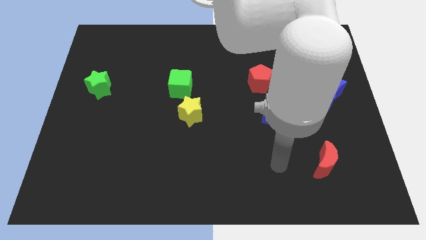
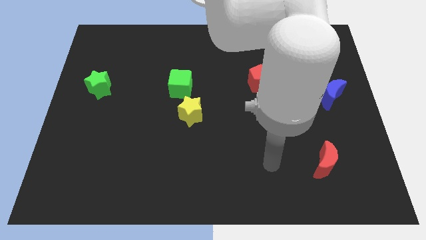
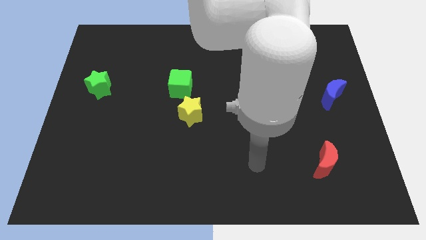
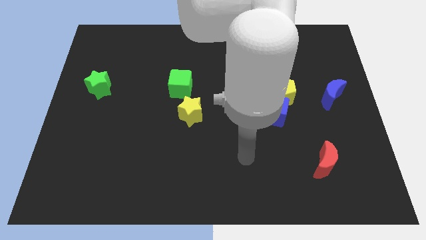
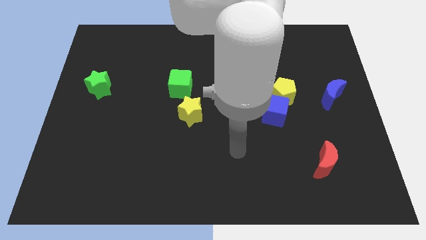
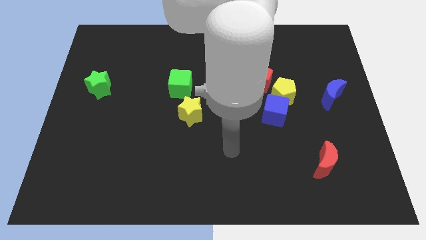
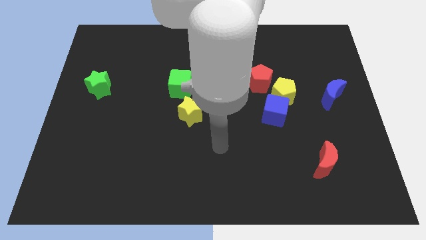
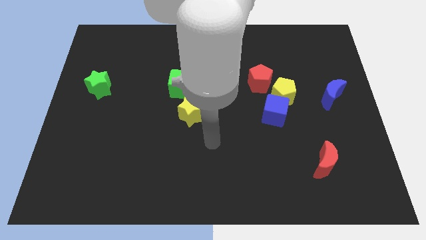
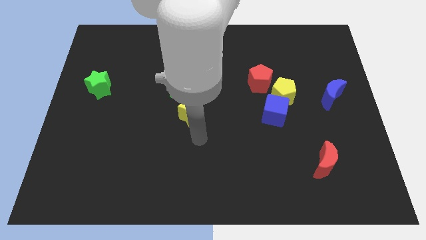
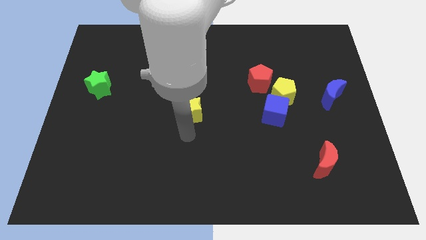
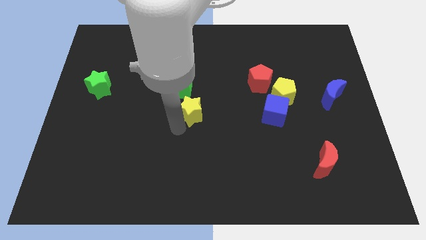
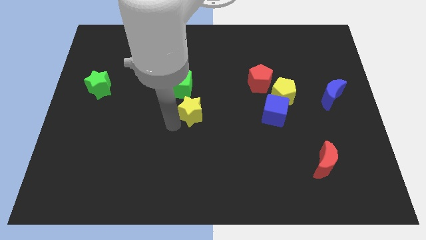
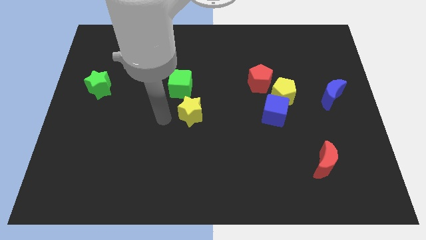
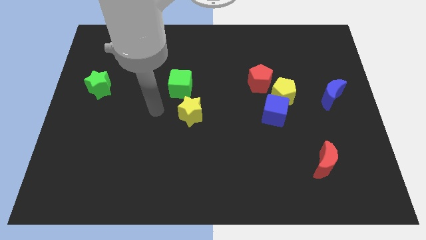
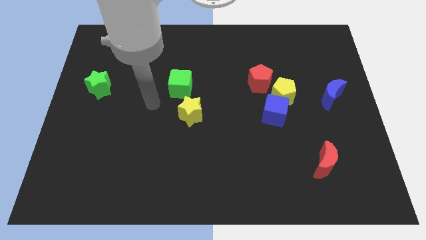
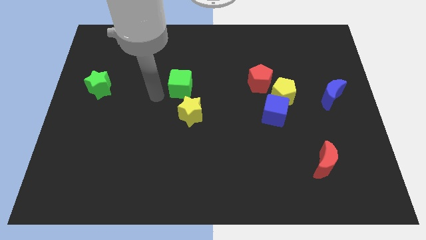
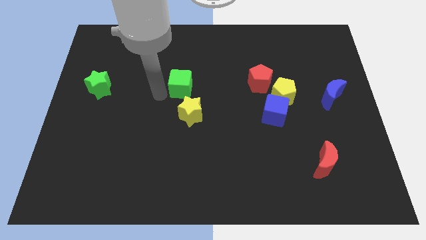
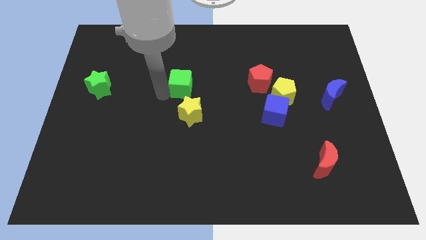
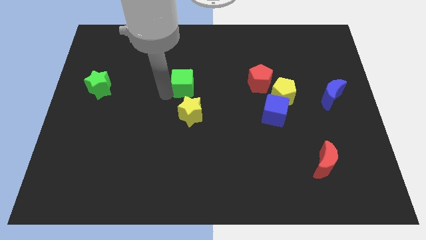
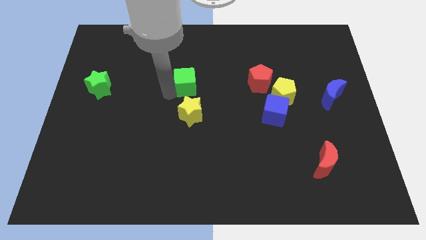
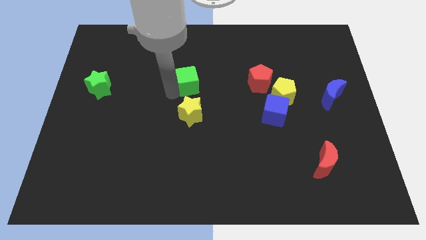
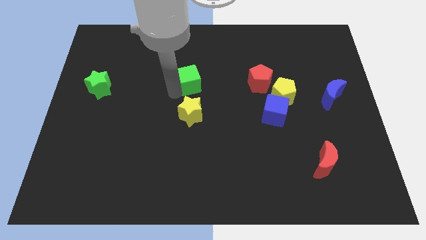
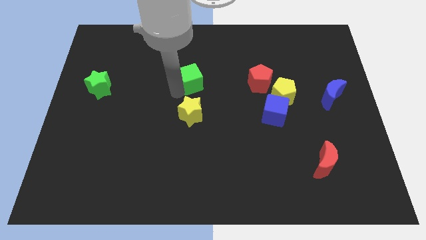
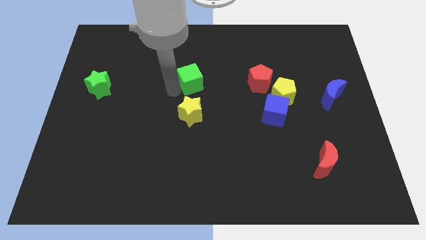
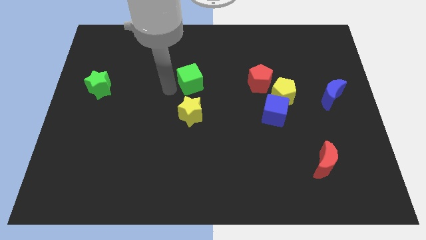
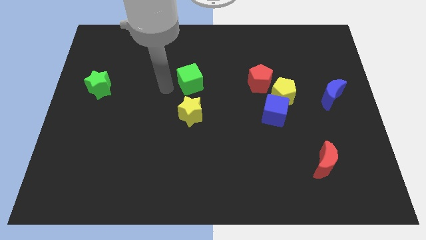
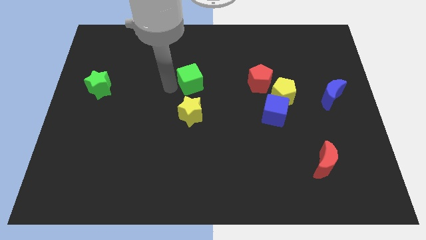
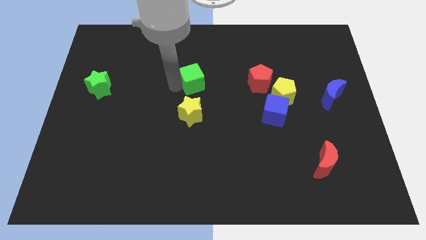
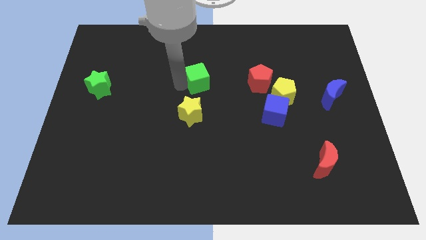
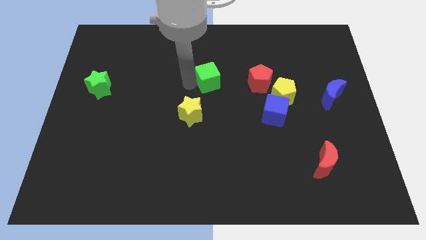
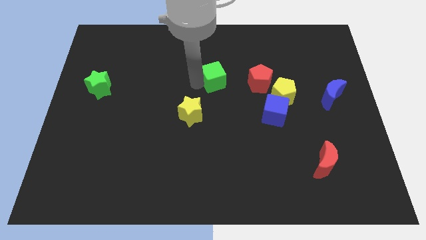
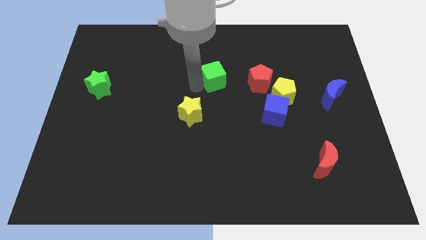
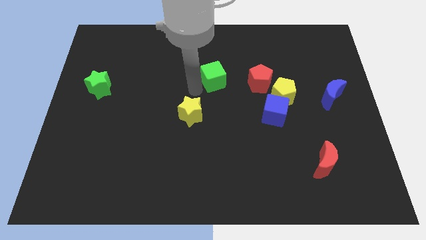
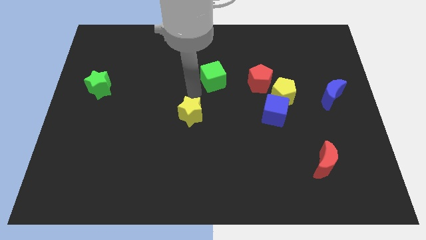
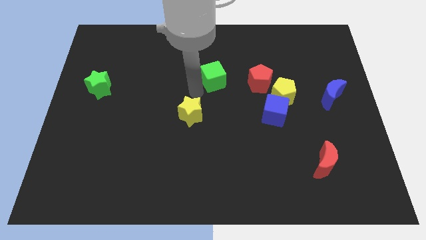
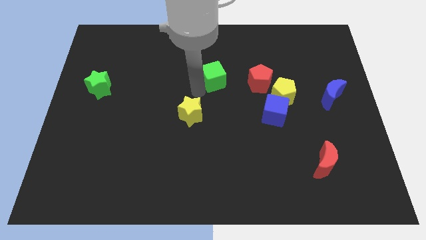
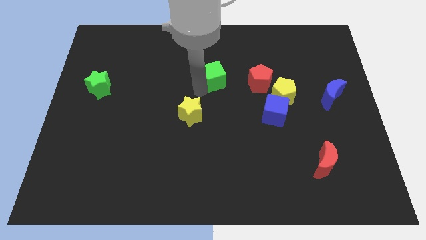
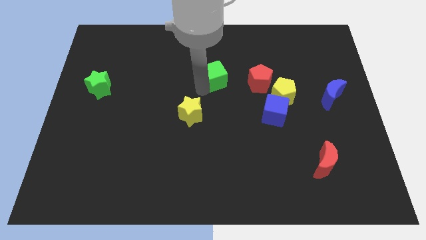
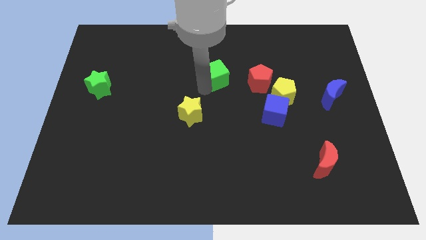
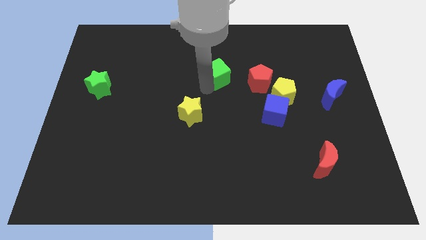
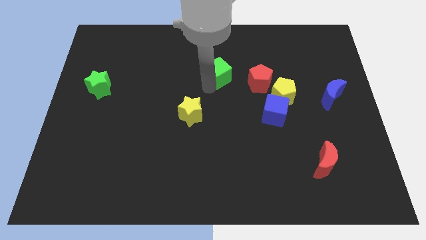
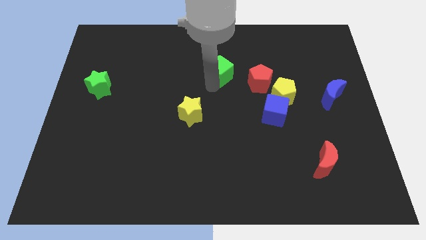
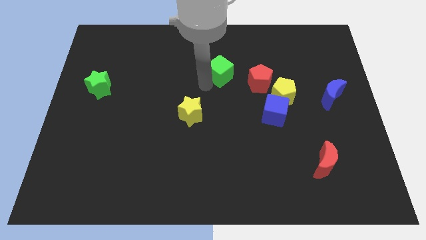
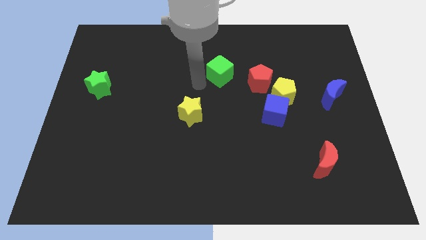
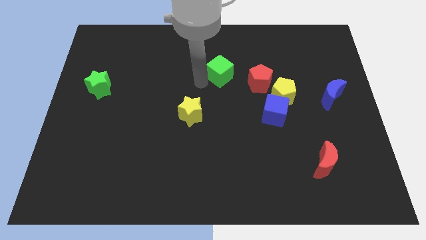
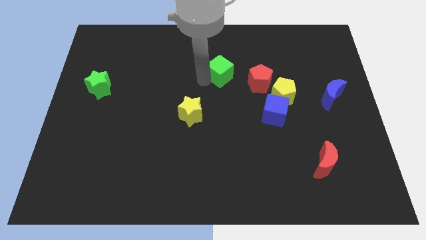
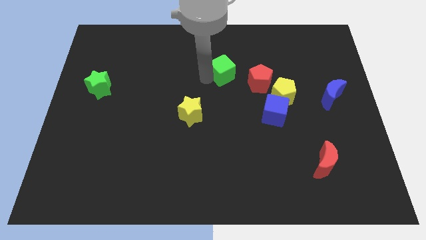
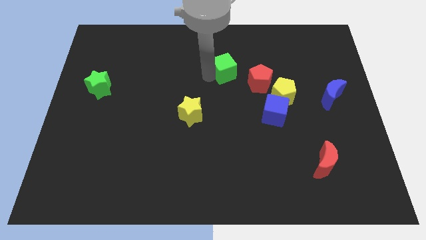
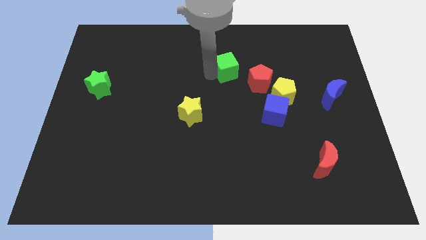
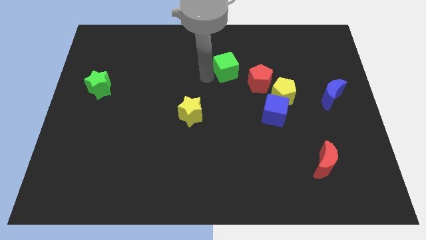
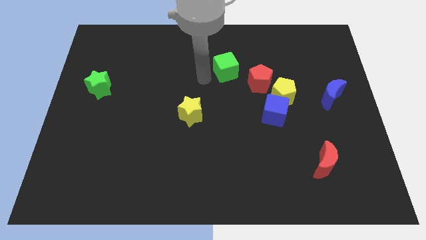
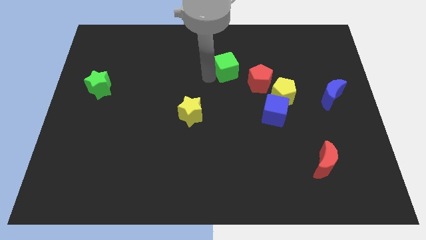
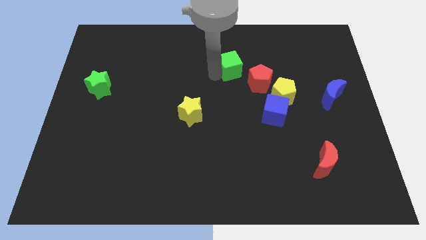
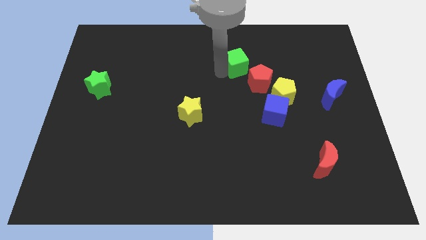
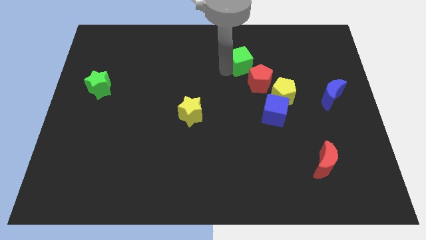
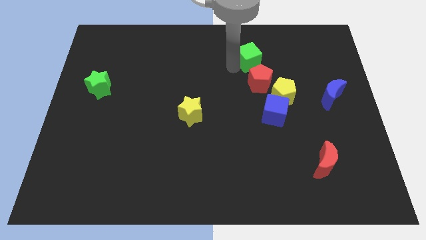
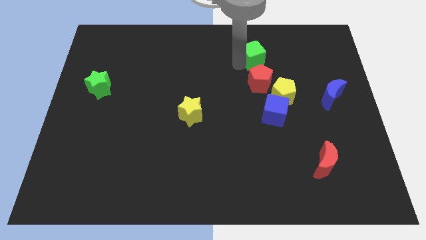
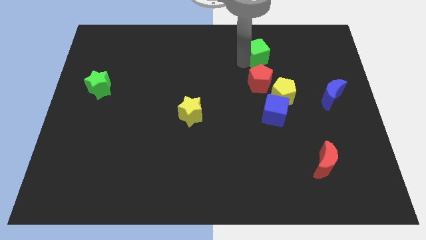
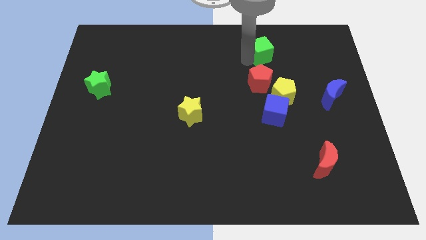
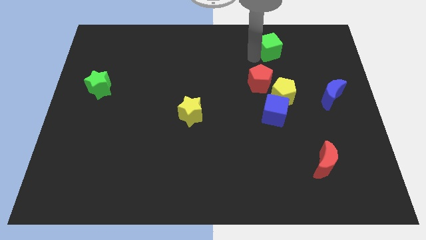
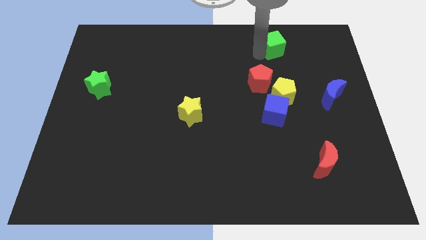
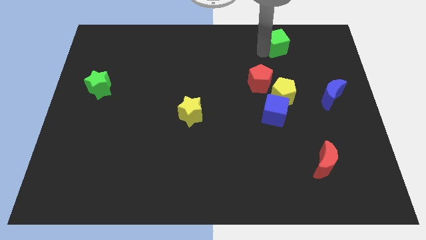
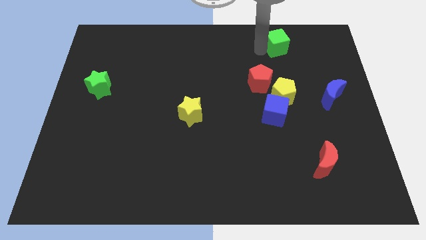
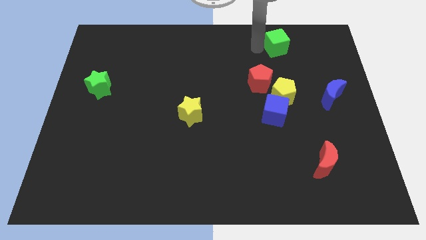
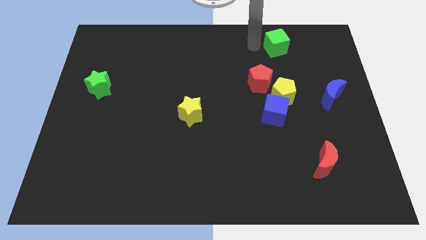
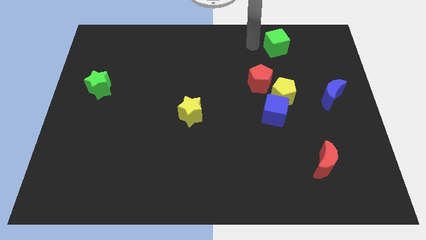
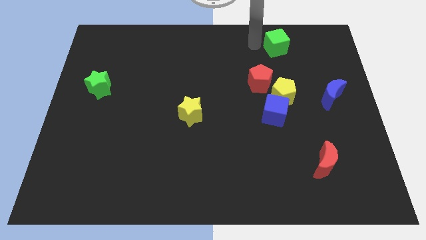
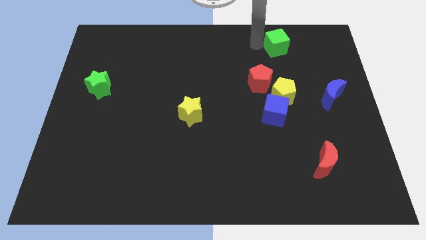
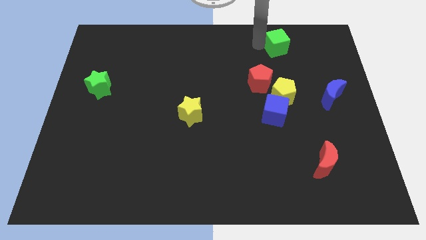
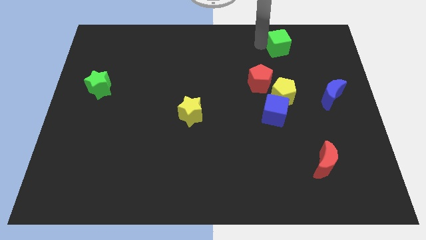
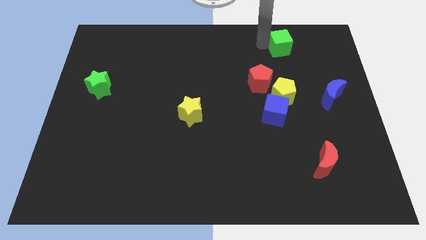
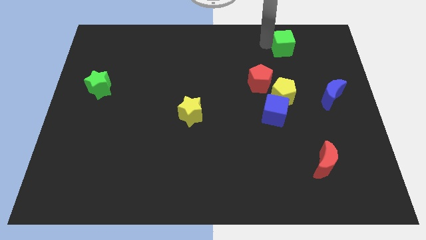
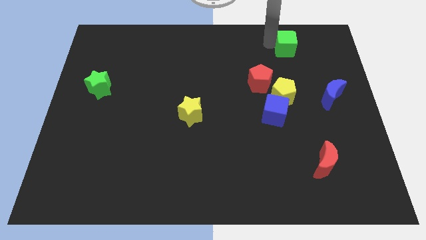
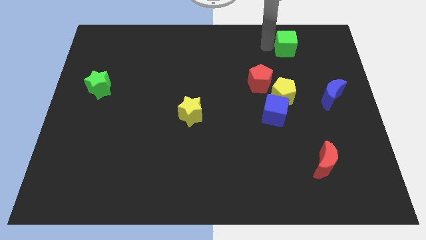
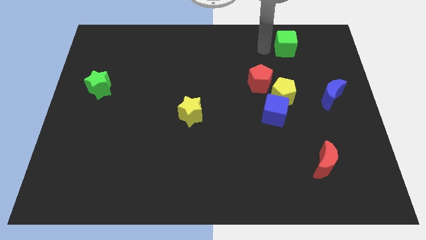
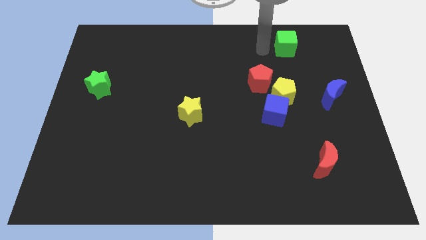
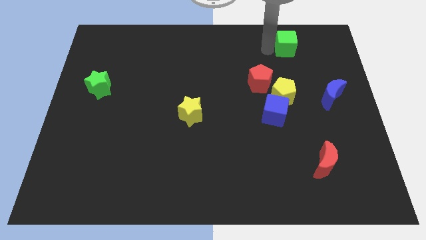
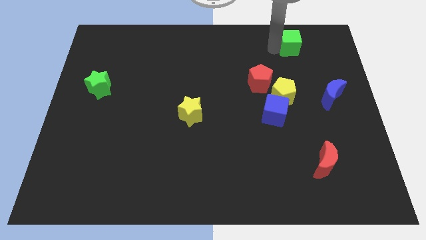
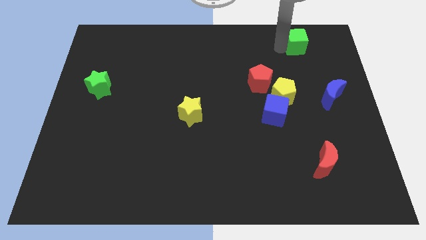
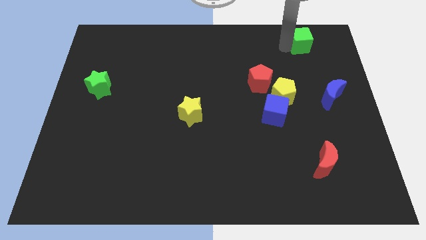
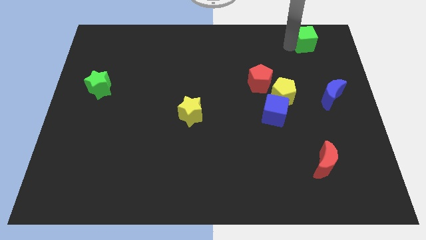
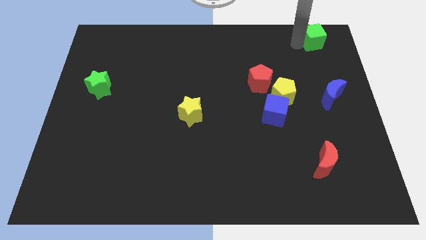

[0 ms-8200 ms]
slide the green cube to the upper right corner
